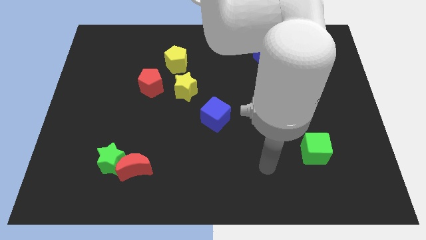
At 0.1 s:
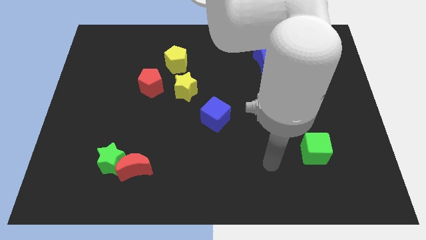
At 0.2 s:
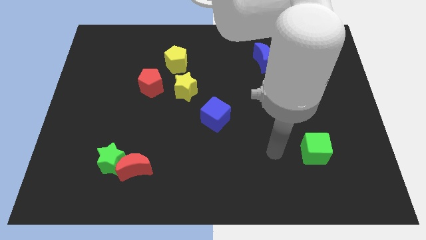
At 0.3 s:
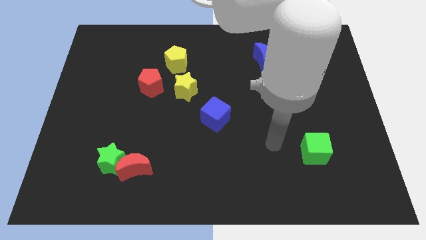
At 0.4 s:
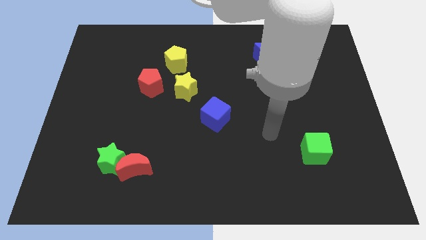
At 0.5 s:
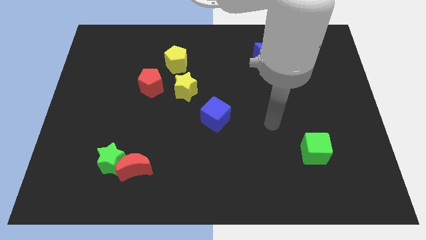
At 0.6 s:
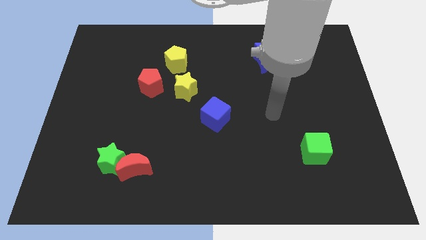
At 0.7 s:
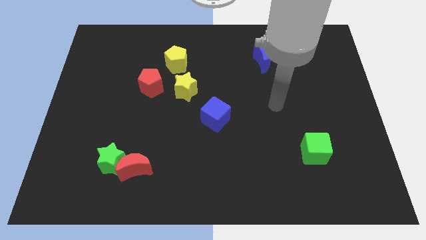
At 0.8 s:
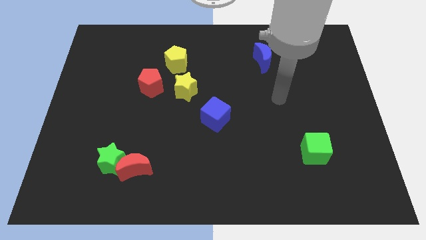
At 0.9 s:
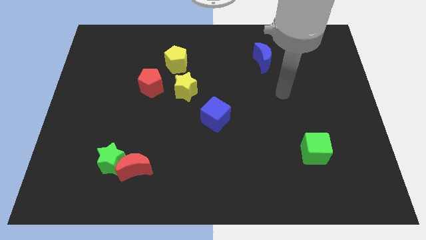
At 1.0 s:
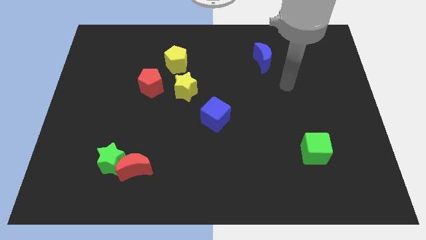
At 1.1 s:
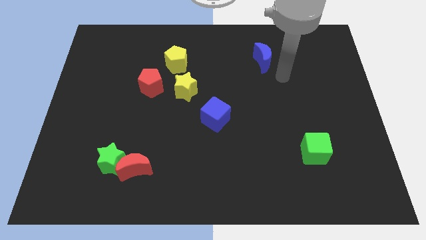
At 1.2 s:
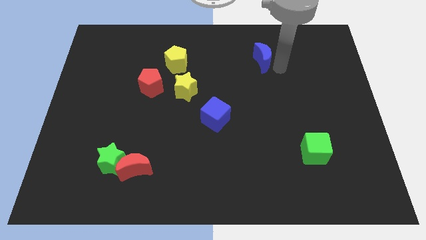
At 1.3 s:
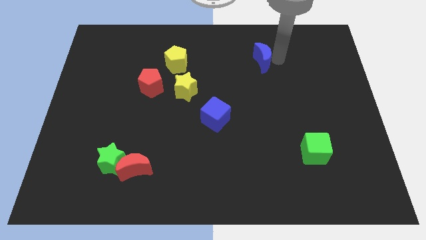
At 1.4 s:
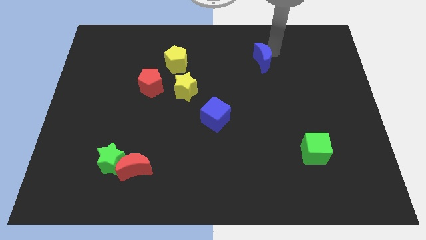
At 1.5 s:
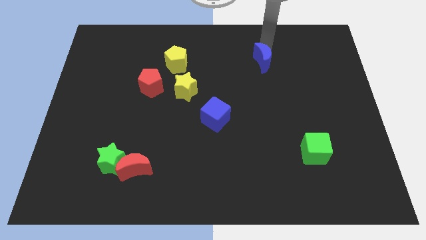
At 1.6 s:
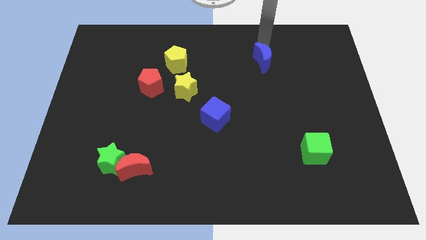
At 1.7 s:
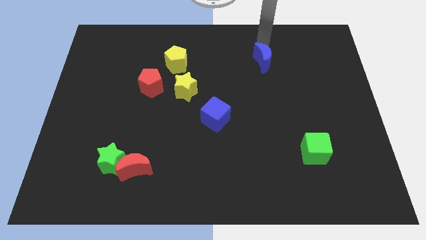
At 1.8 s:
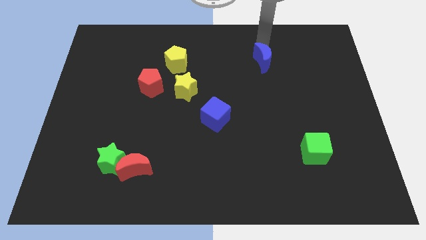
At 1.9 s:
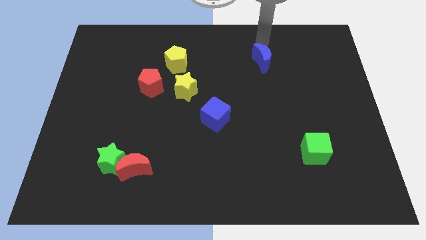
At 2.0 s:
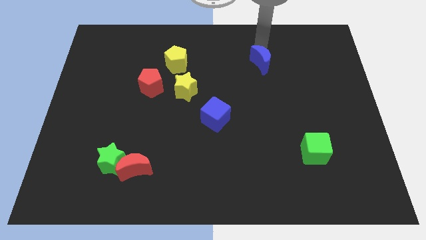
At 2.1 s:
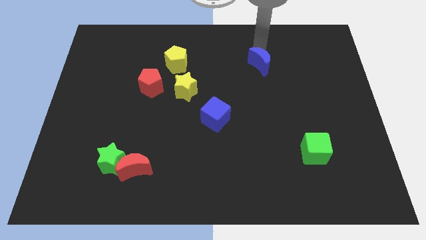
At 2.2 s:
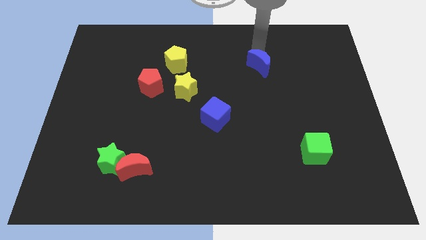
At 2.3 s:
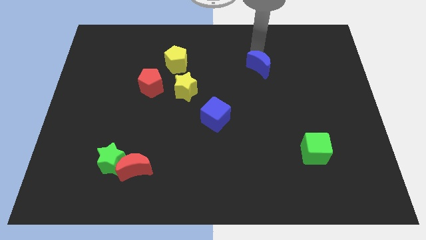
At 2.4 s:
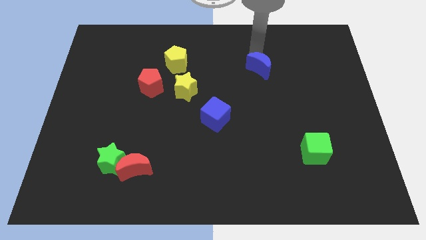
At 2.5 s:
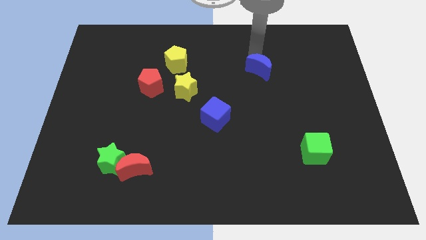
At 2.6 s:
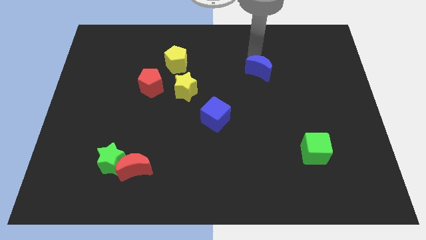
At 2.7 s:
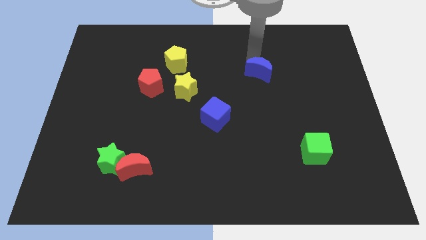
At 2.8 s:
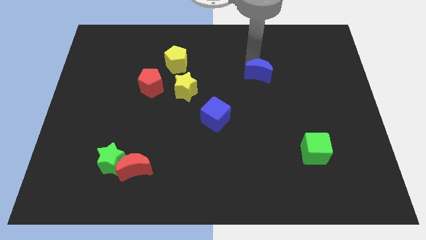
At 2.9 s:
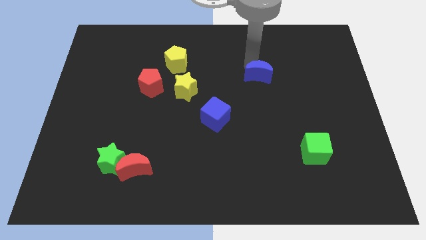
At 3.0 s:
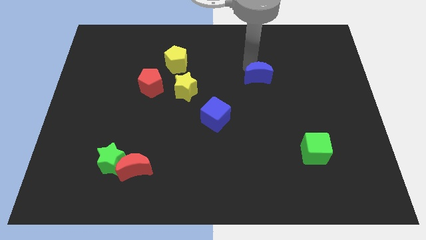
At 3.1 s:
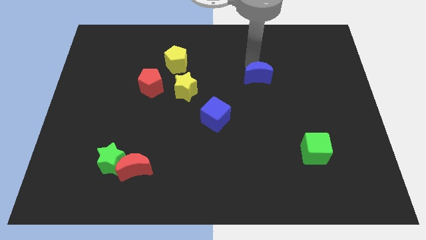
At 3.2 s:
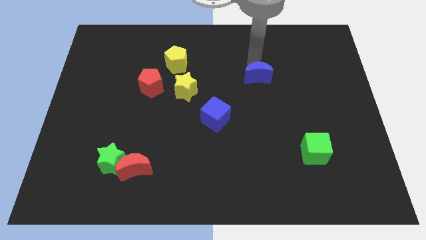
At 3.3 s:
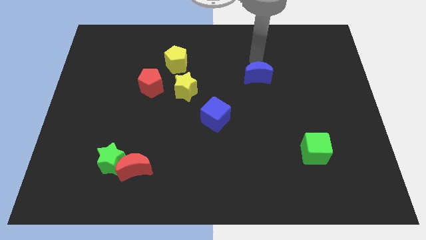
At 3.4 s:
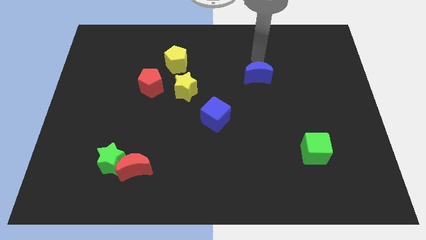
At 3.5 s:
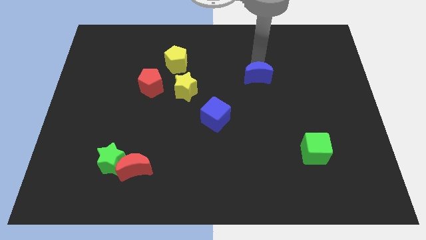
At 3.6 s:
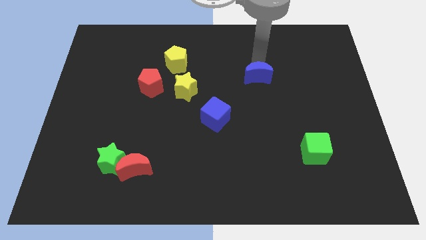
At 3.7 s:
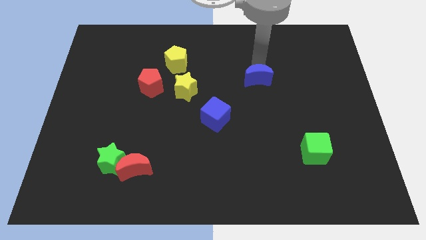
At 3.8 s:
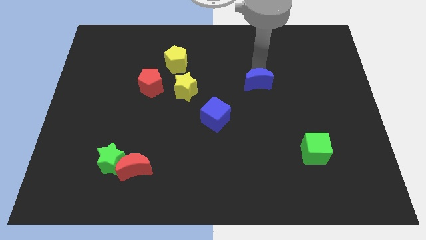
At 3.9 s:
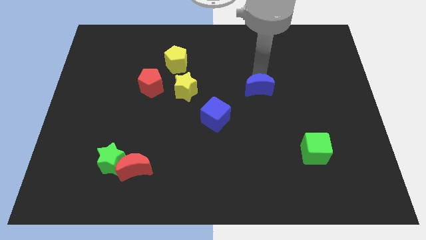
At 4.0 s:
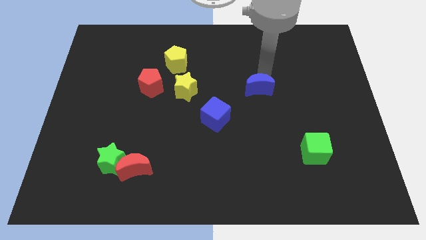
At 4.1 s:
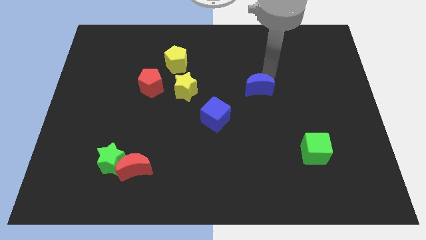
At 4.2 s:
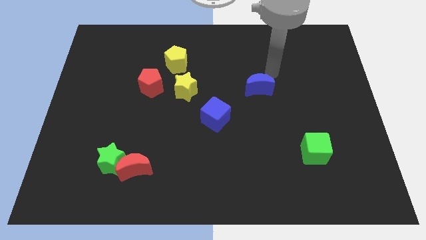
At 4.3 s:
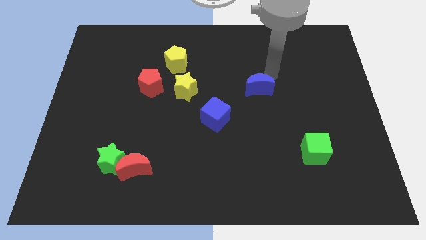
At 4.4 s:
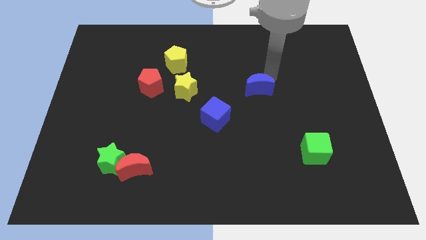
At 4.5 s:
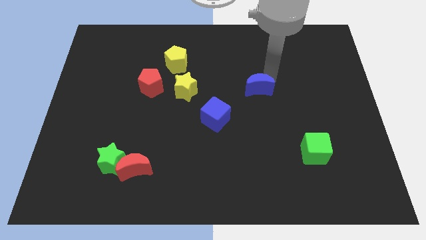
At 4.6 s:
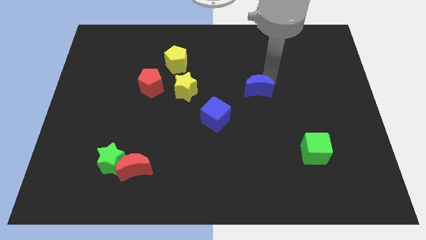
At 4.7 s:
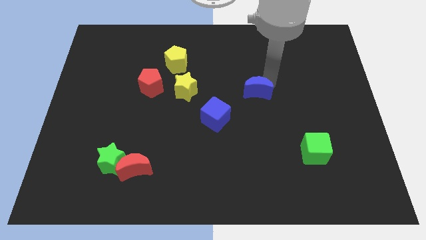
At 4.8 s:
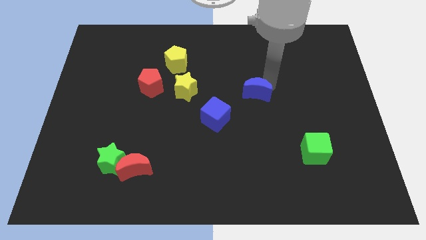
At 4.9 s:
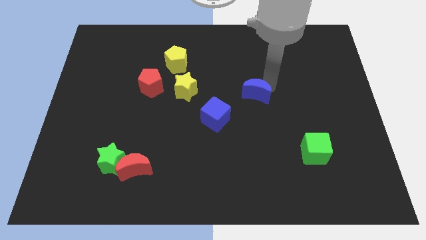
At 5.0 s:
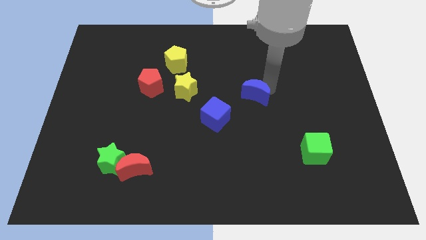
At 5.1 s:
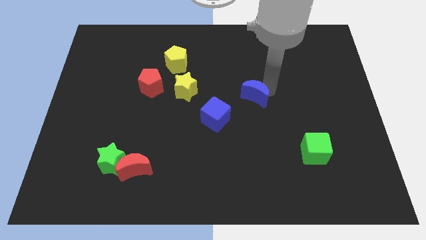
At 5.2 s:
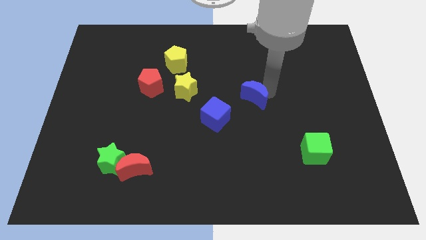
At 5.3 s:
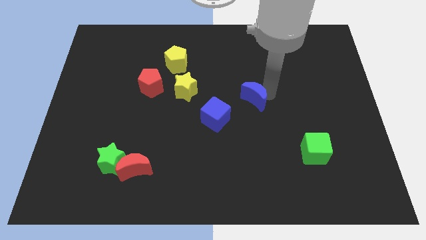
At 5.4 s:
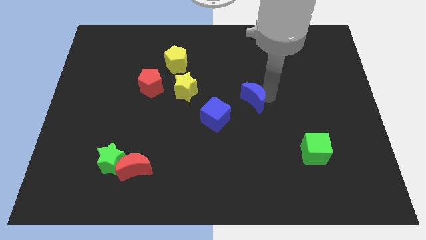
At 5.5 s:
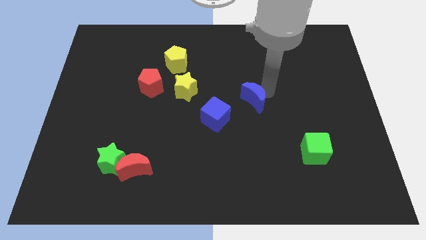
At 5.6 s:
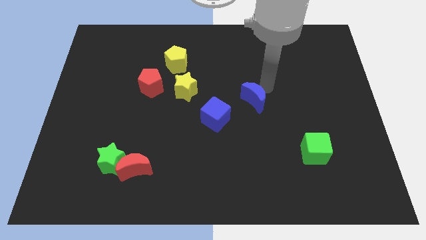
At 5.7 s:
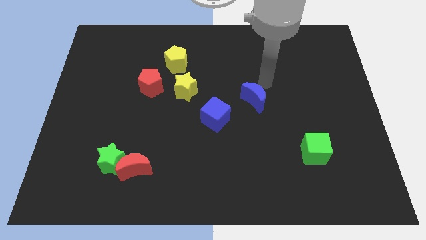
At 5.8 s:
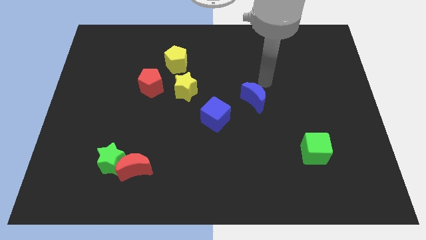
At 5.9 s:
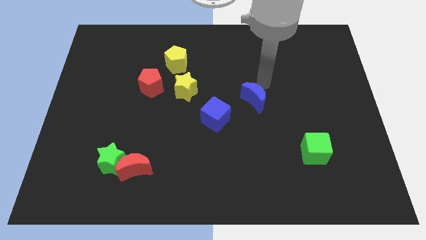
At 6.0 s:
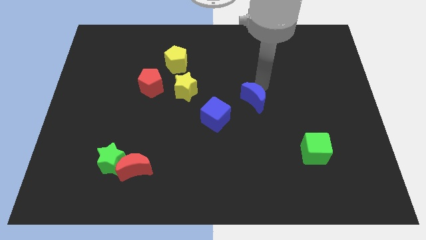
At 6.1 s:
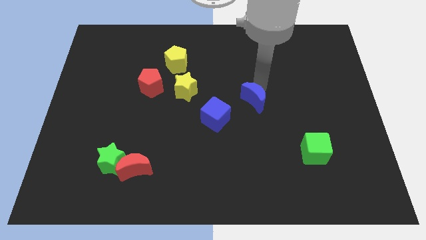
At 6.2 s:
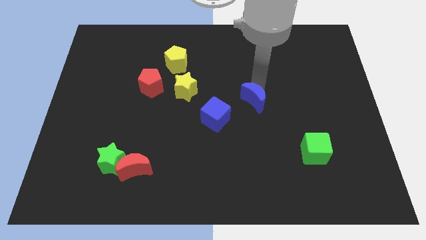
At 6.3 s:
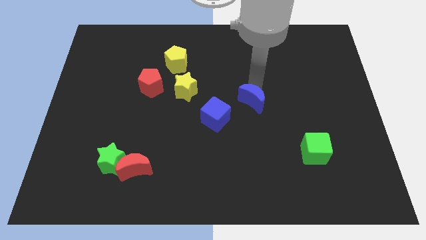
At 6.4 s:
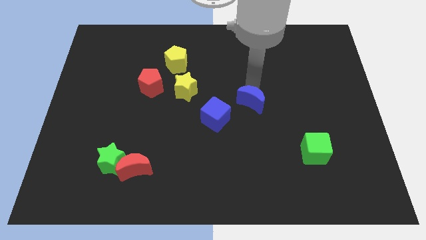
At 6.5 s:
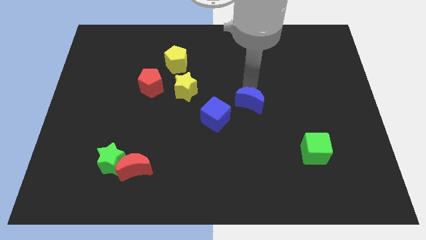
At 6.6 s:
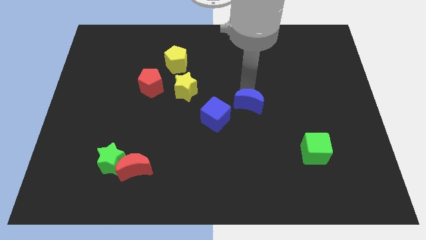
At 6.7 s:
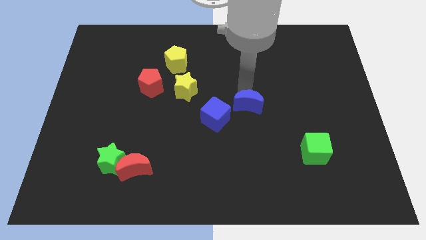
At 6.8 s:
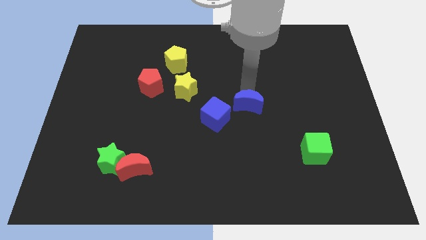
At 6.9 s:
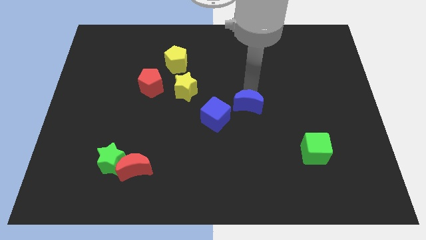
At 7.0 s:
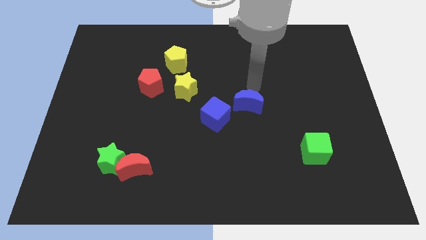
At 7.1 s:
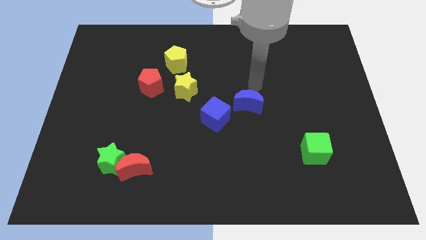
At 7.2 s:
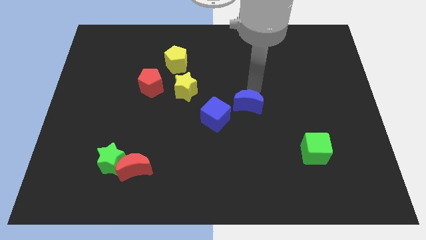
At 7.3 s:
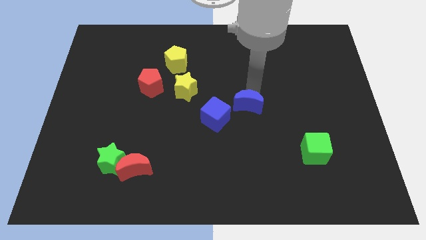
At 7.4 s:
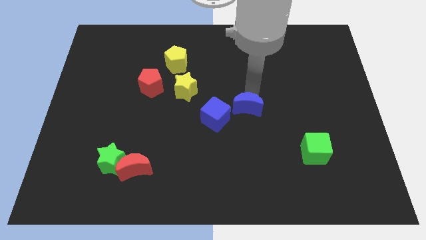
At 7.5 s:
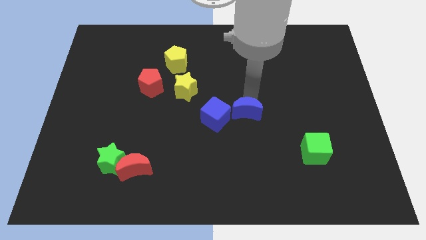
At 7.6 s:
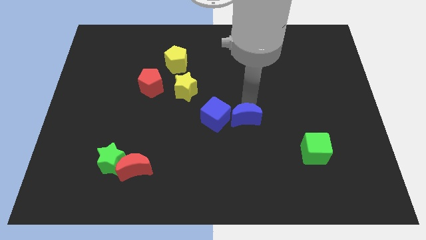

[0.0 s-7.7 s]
put the blue moon to the bottom right side of the blue cube
